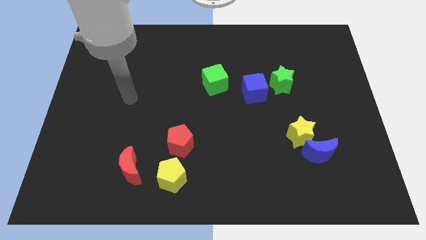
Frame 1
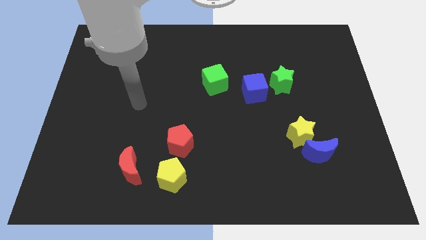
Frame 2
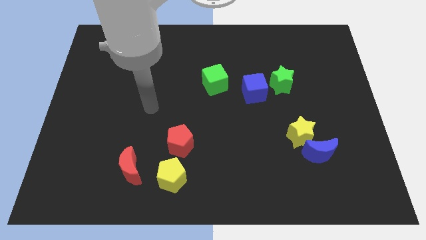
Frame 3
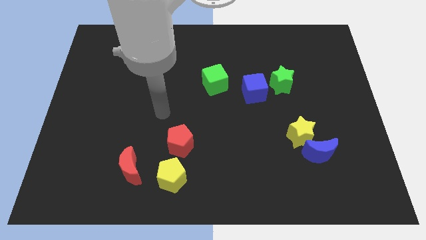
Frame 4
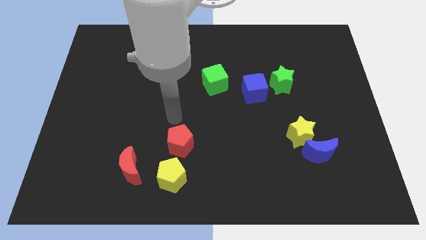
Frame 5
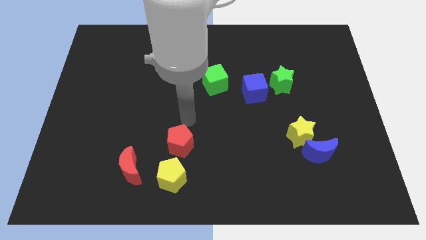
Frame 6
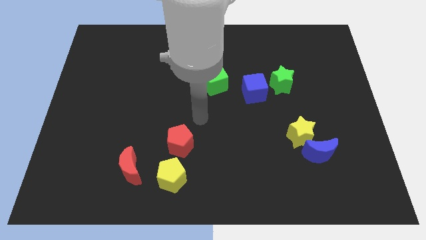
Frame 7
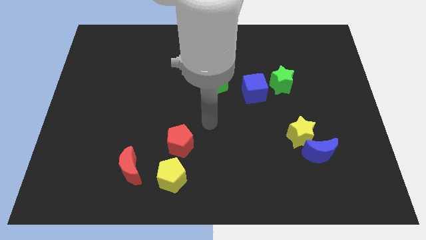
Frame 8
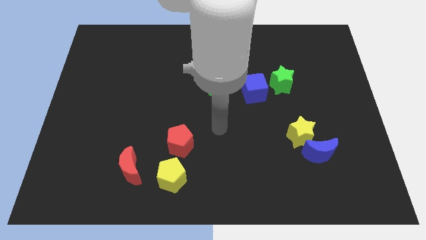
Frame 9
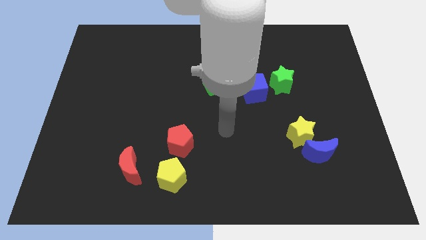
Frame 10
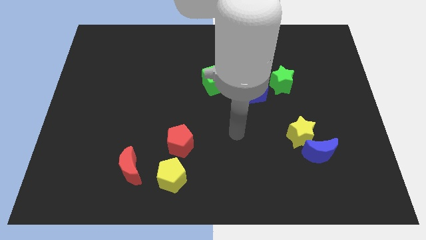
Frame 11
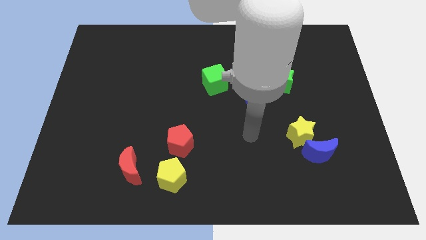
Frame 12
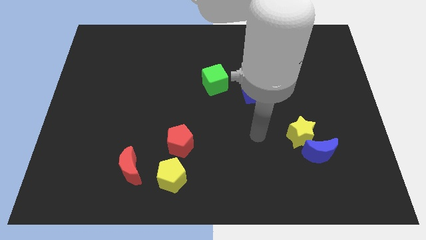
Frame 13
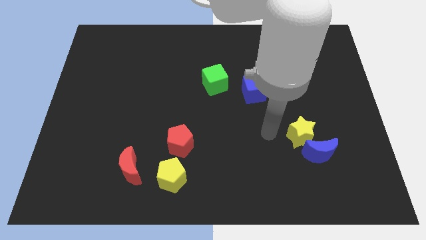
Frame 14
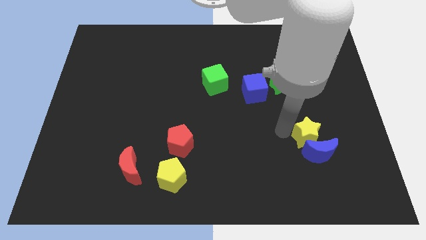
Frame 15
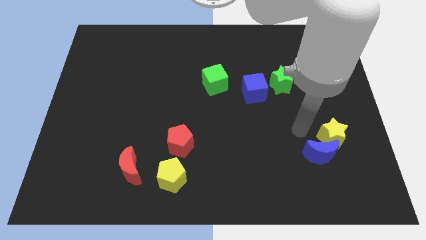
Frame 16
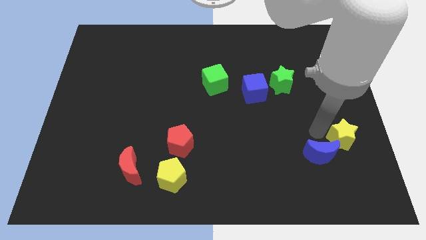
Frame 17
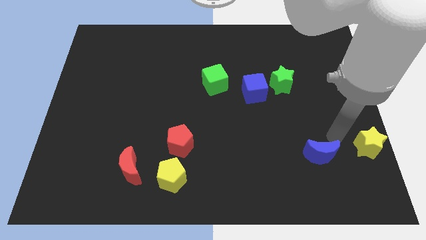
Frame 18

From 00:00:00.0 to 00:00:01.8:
separate the blue moon from the yellow star

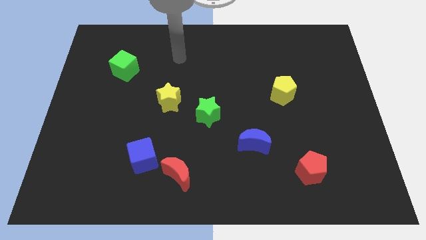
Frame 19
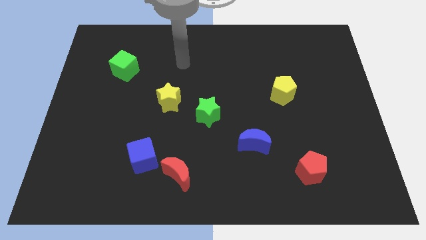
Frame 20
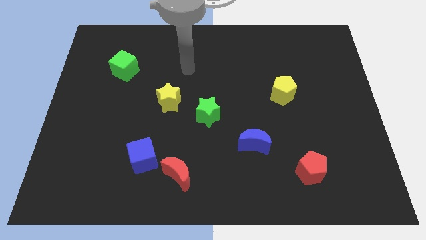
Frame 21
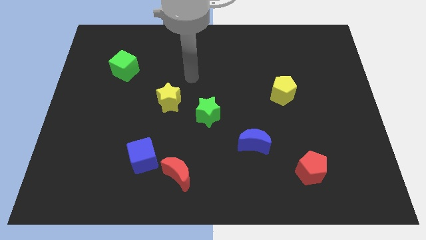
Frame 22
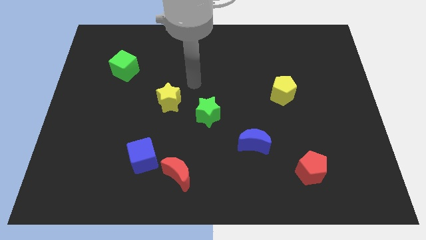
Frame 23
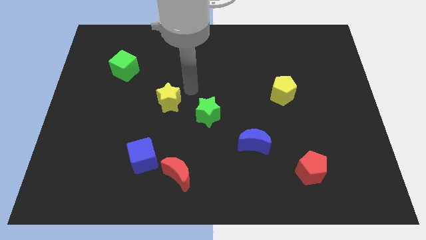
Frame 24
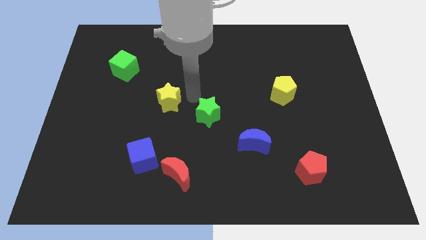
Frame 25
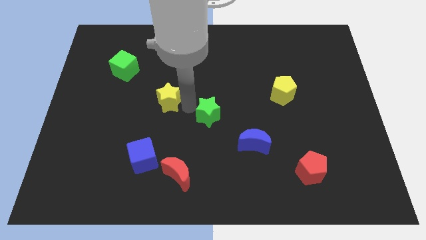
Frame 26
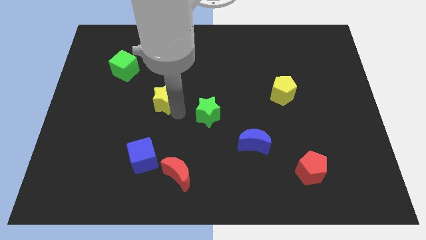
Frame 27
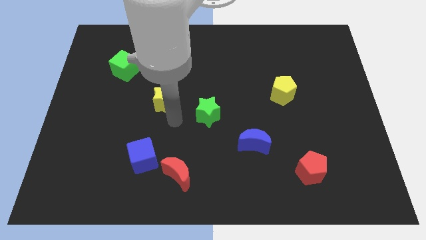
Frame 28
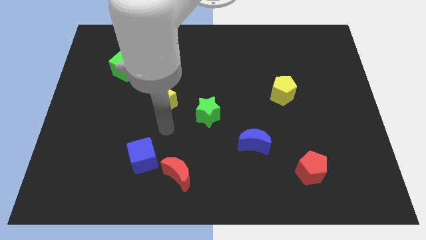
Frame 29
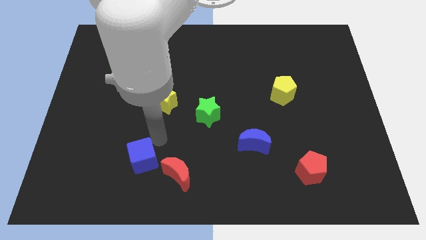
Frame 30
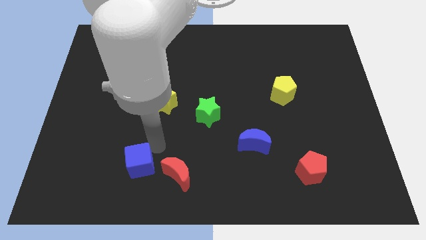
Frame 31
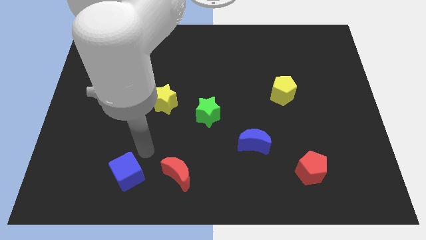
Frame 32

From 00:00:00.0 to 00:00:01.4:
pull the red moon apart from the blue cube

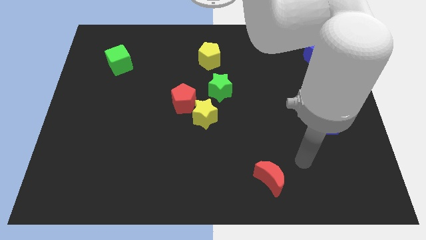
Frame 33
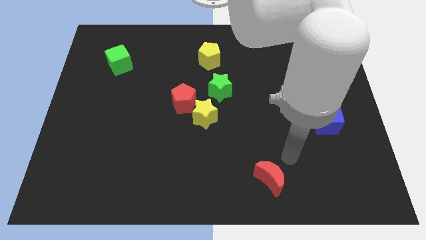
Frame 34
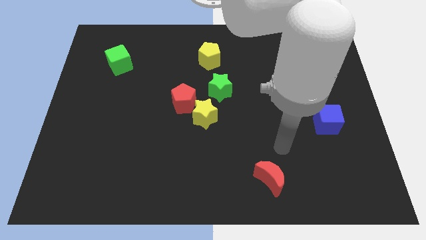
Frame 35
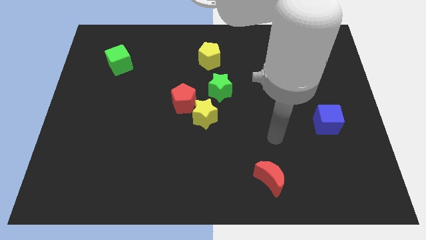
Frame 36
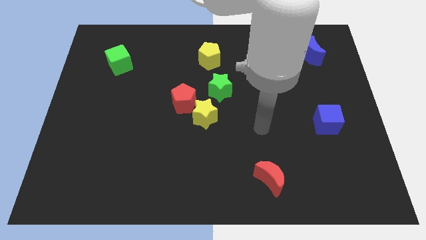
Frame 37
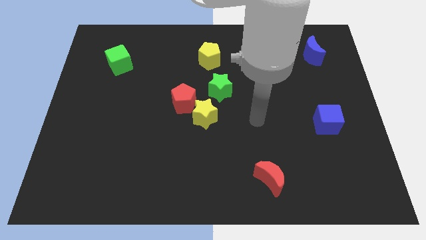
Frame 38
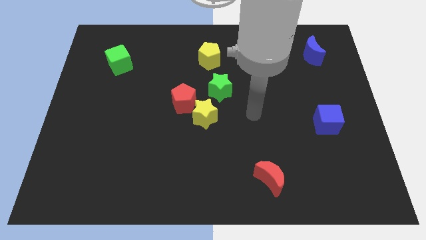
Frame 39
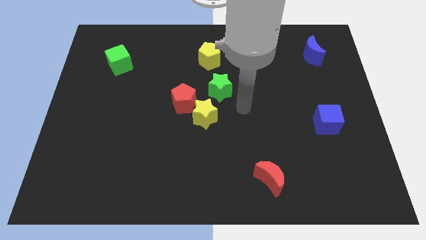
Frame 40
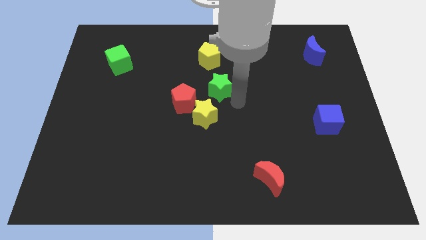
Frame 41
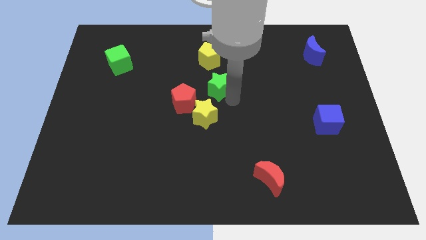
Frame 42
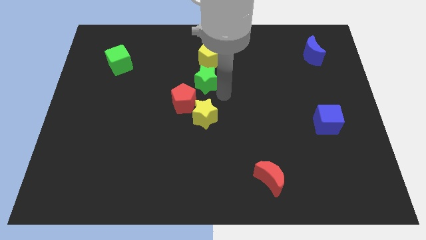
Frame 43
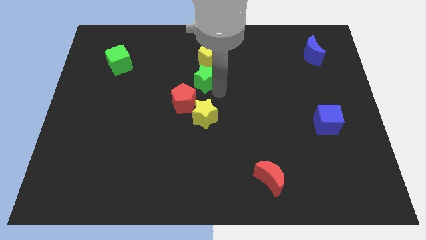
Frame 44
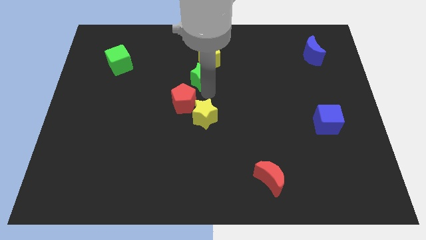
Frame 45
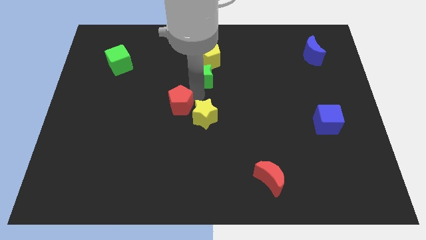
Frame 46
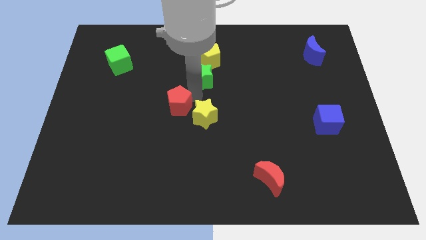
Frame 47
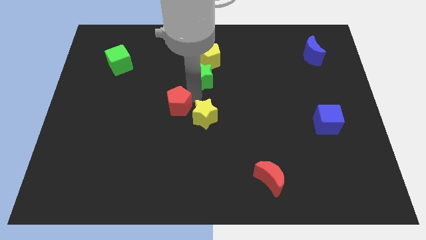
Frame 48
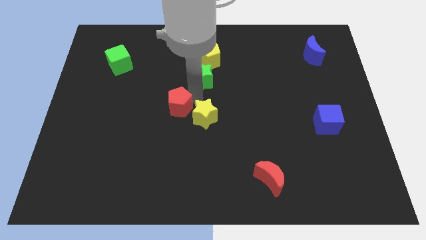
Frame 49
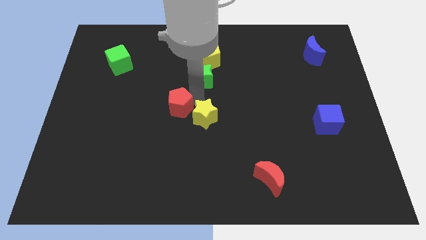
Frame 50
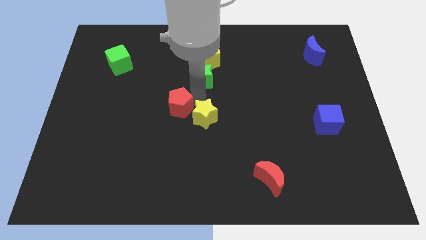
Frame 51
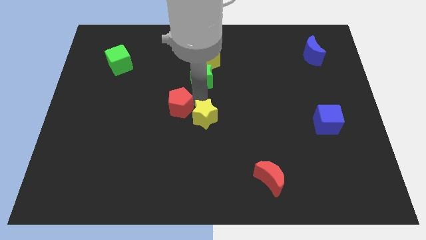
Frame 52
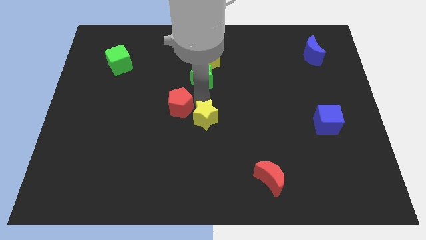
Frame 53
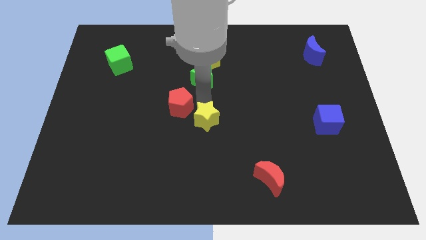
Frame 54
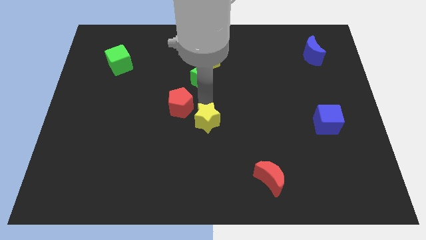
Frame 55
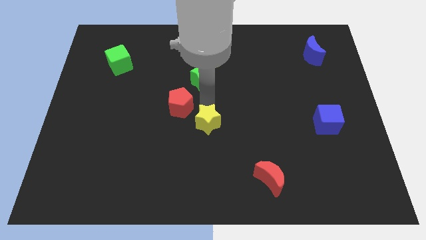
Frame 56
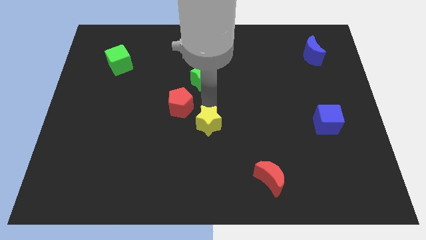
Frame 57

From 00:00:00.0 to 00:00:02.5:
move the yellow star away from the red pentagon and green star

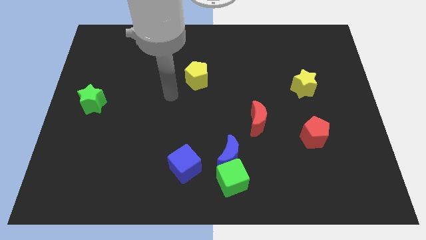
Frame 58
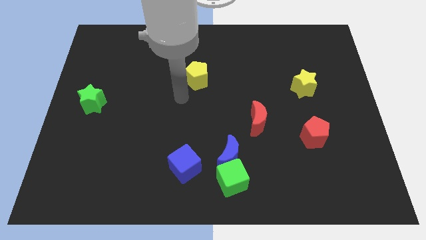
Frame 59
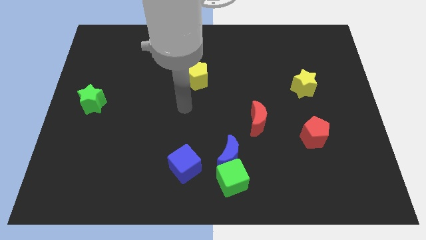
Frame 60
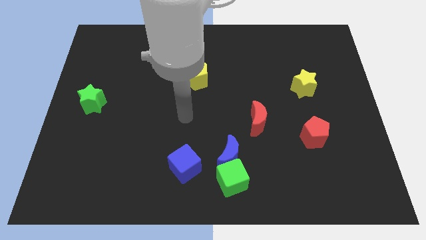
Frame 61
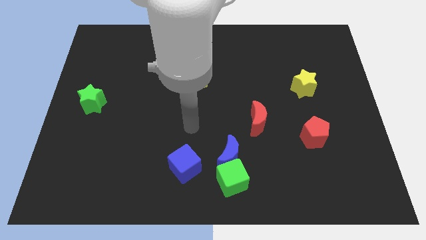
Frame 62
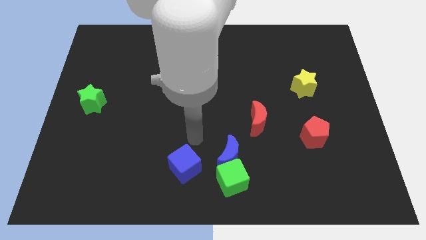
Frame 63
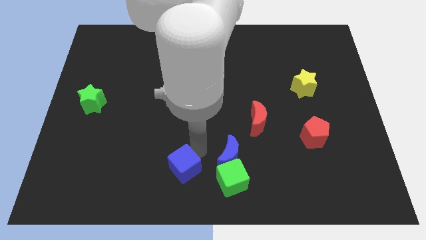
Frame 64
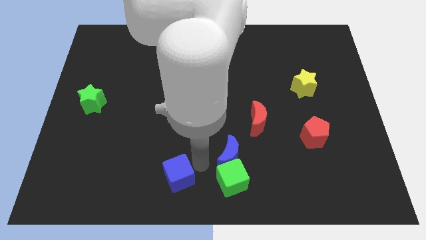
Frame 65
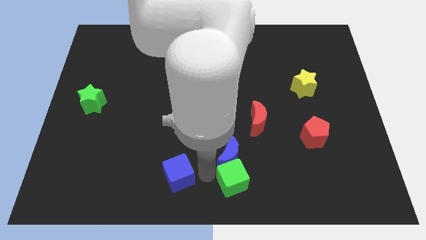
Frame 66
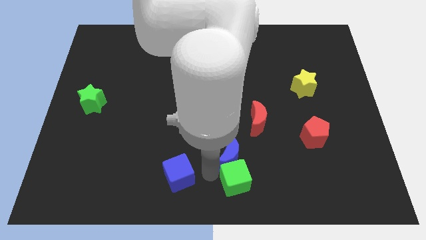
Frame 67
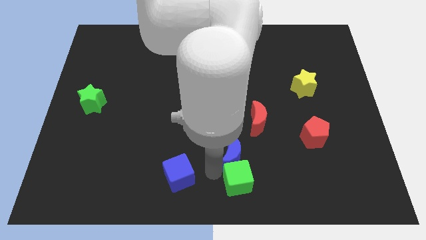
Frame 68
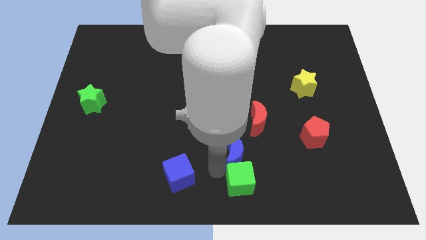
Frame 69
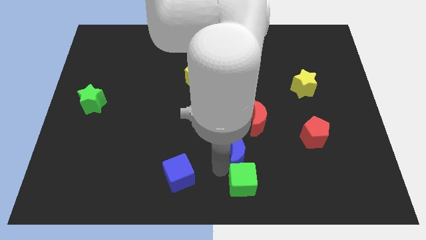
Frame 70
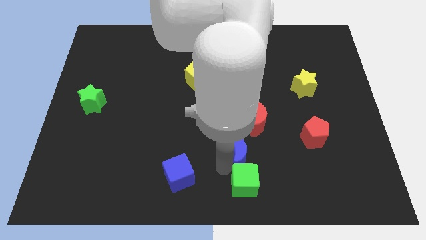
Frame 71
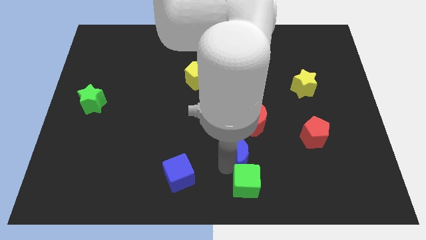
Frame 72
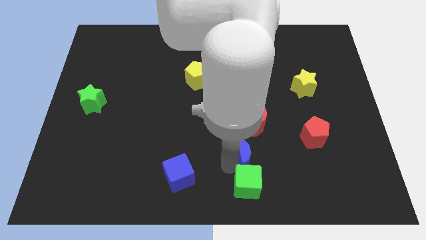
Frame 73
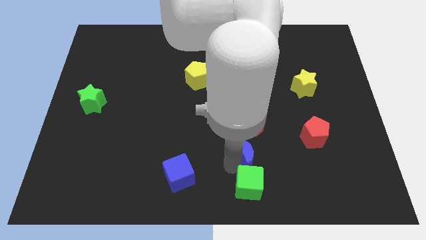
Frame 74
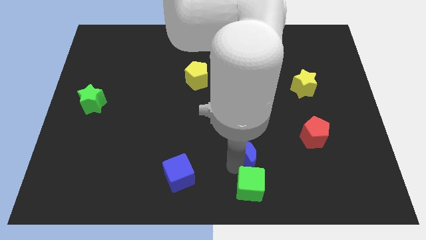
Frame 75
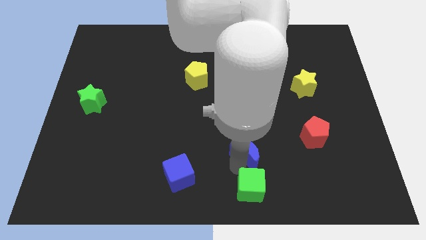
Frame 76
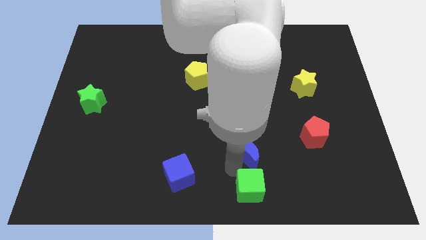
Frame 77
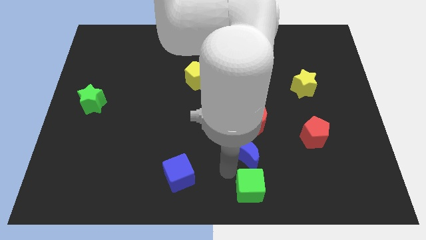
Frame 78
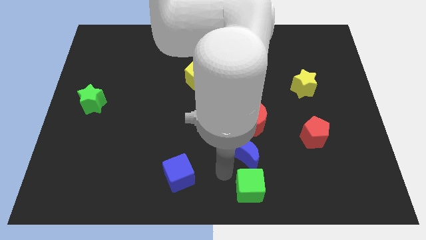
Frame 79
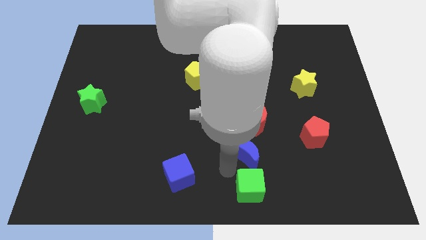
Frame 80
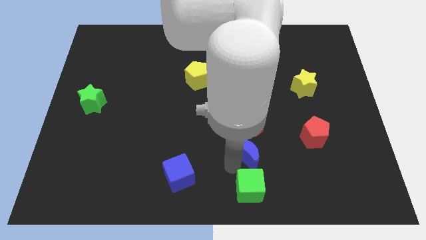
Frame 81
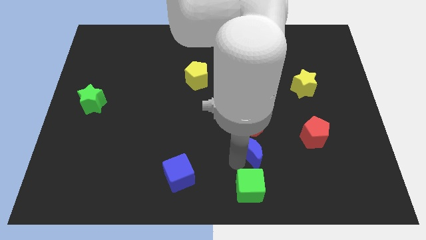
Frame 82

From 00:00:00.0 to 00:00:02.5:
separate the blue moon from the green cube and blue cube

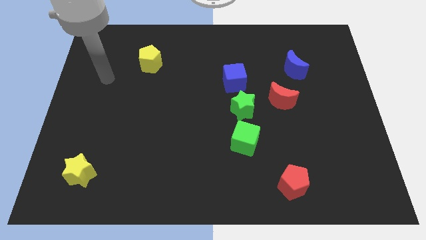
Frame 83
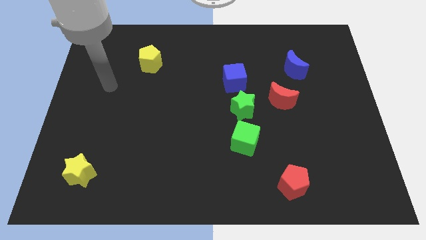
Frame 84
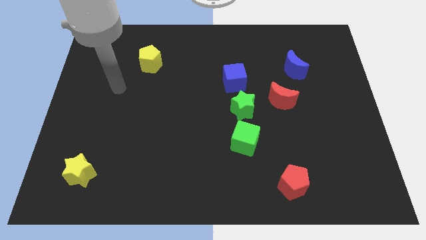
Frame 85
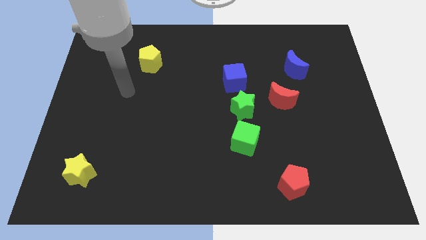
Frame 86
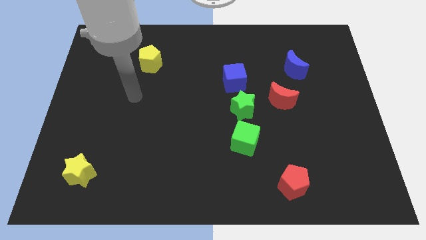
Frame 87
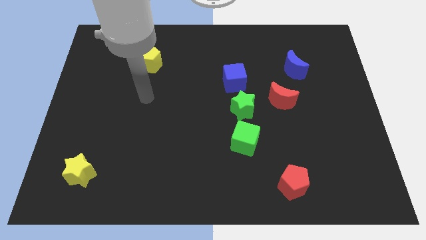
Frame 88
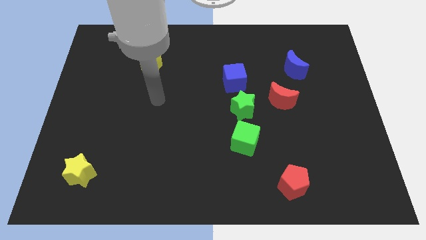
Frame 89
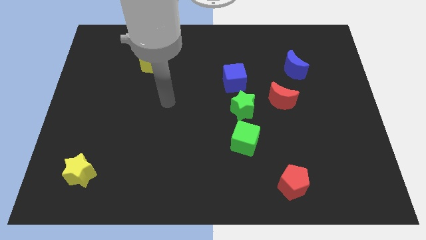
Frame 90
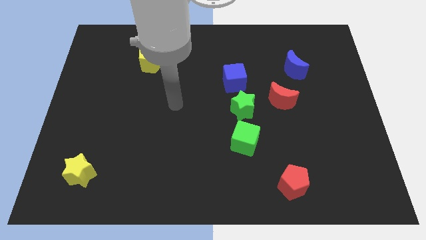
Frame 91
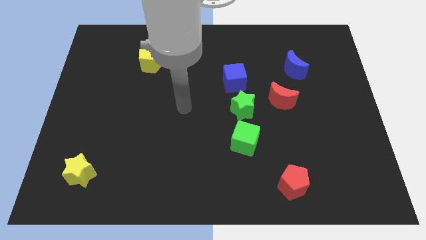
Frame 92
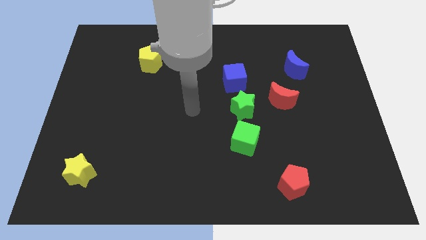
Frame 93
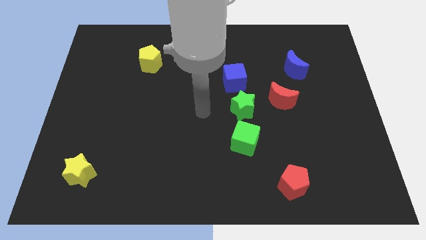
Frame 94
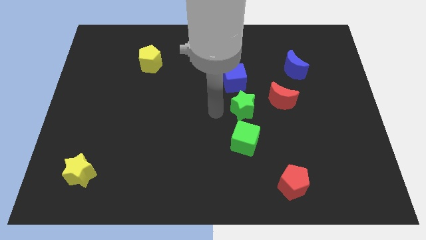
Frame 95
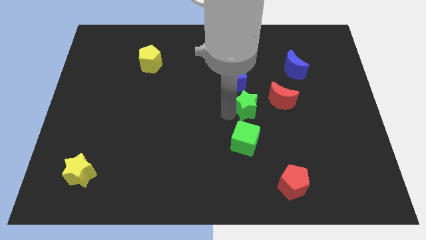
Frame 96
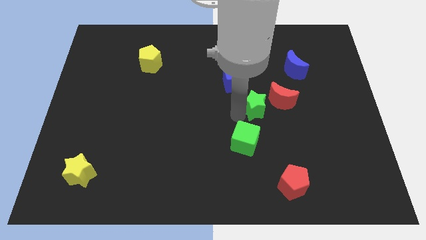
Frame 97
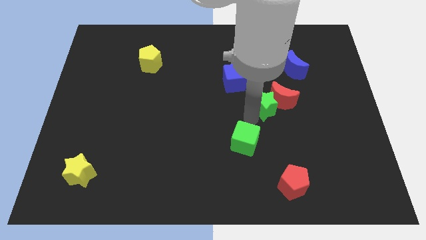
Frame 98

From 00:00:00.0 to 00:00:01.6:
move the green cube away from the green star
